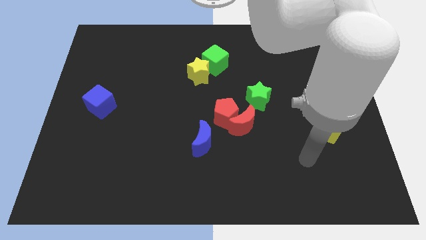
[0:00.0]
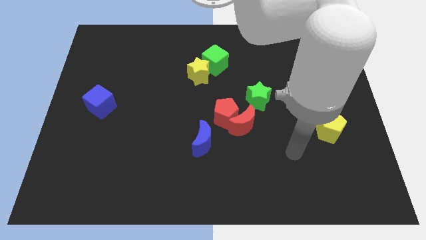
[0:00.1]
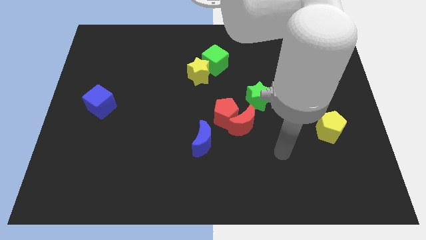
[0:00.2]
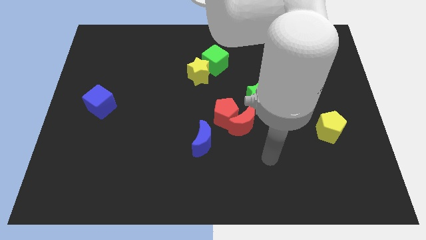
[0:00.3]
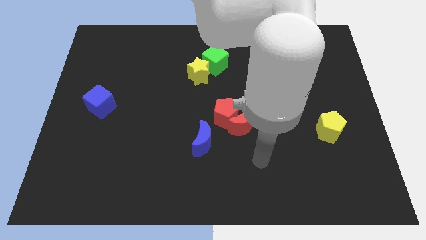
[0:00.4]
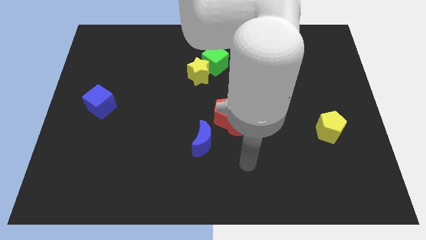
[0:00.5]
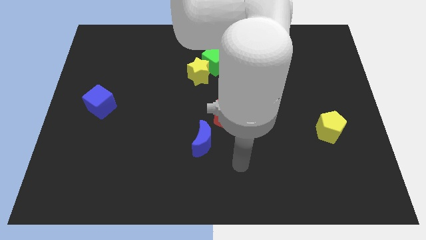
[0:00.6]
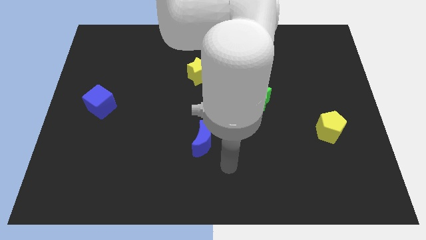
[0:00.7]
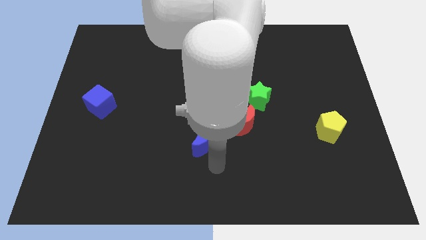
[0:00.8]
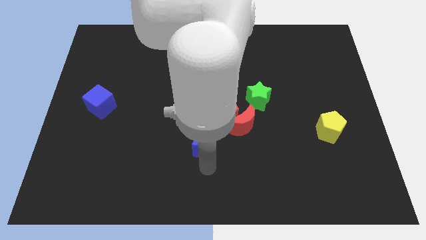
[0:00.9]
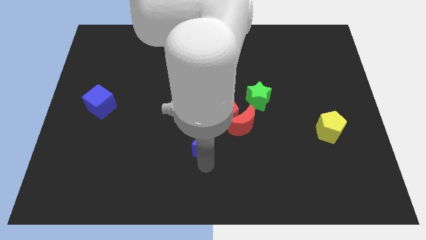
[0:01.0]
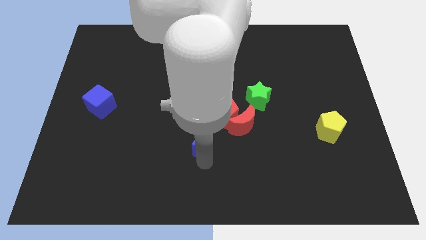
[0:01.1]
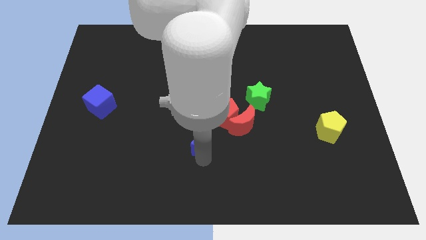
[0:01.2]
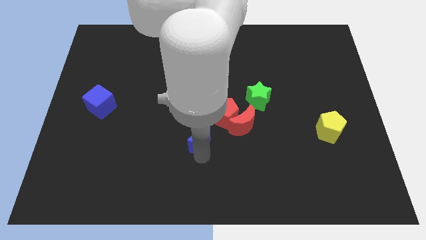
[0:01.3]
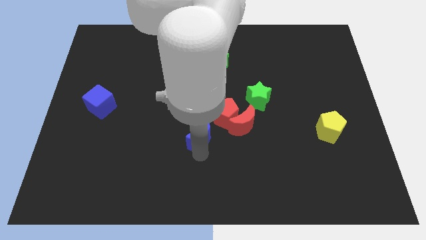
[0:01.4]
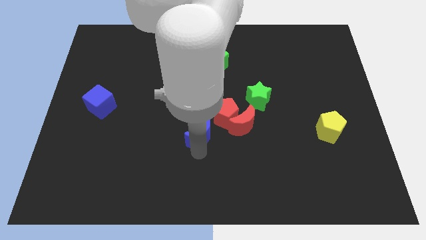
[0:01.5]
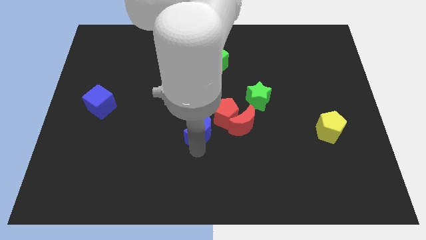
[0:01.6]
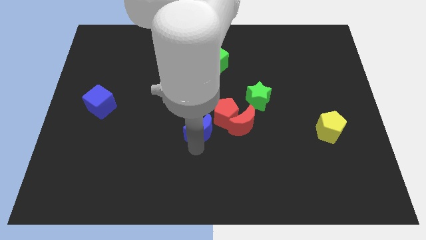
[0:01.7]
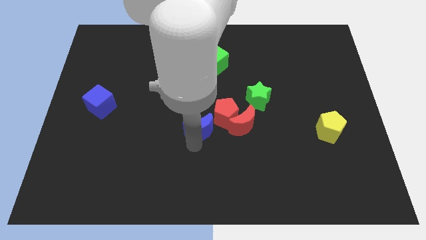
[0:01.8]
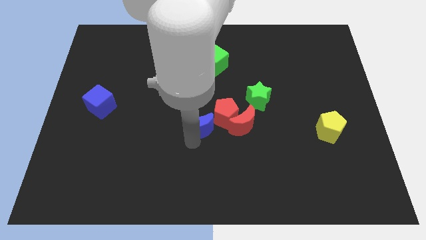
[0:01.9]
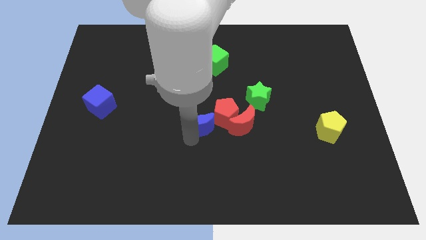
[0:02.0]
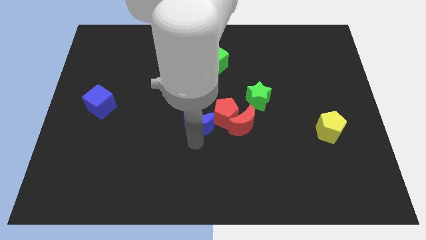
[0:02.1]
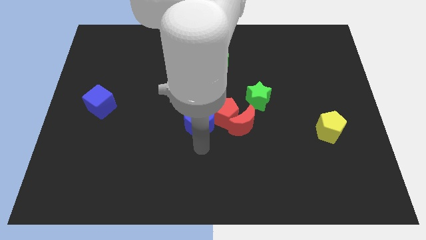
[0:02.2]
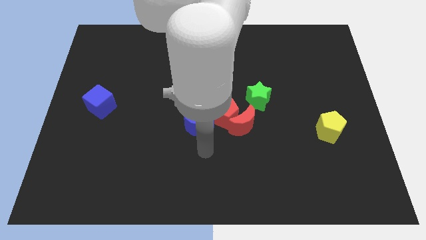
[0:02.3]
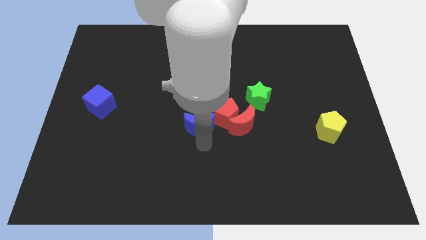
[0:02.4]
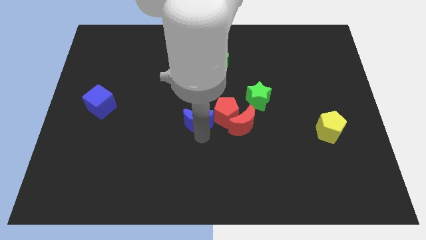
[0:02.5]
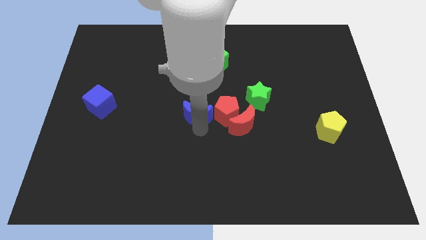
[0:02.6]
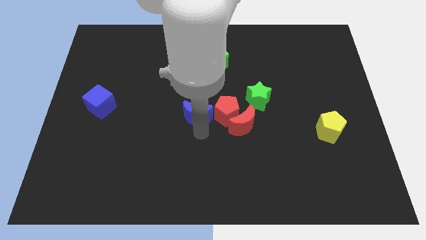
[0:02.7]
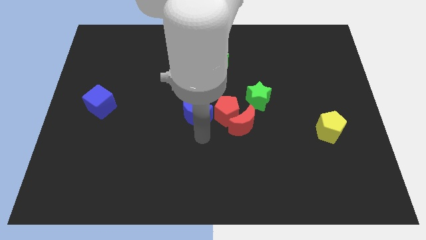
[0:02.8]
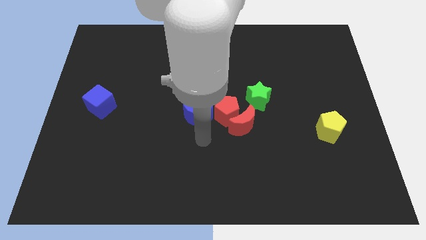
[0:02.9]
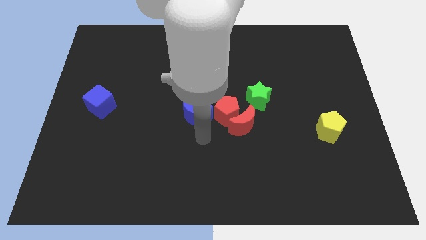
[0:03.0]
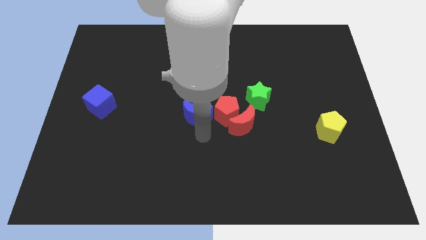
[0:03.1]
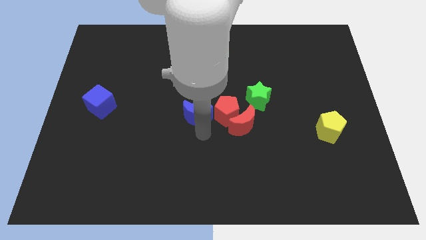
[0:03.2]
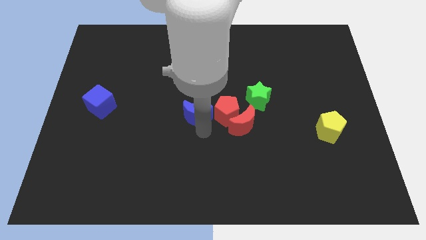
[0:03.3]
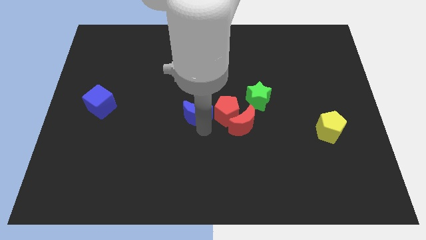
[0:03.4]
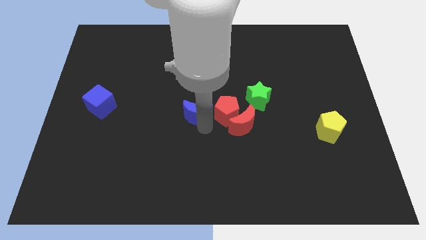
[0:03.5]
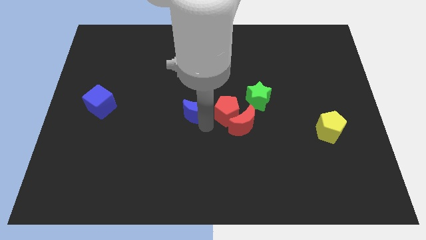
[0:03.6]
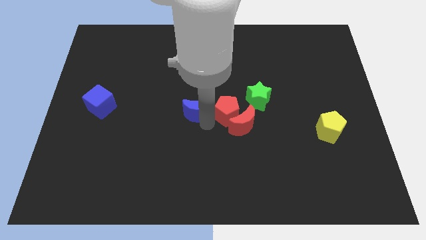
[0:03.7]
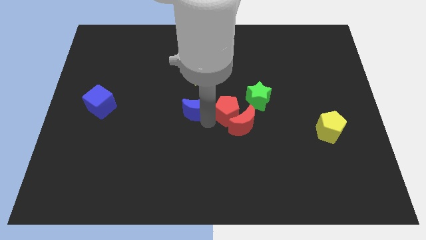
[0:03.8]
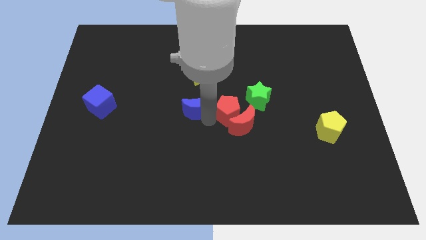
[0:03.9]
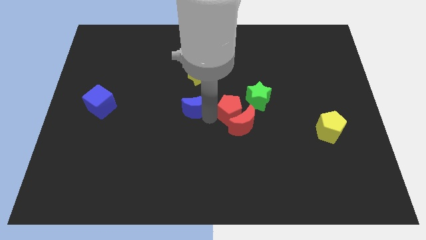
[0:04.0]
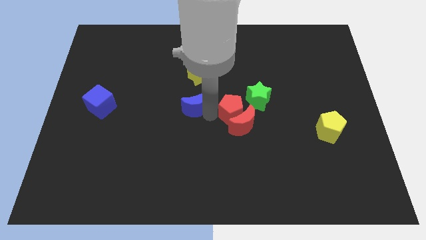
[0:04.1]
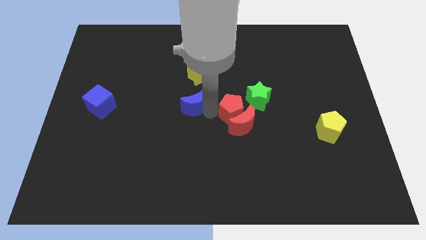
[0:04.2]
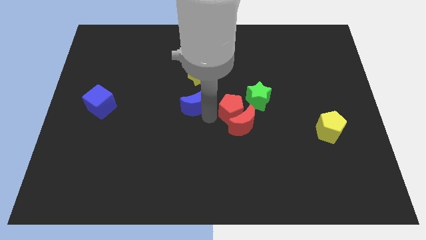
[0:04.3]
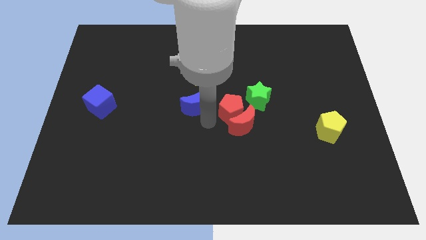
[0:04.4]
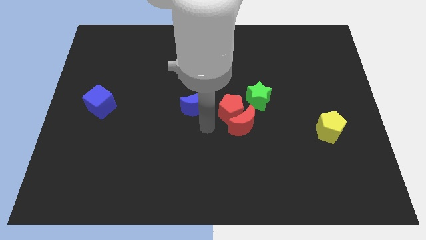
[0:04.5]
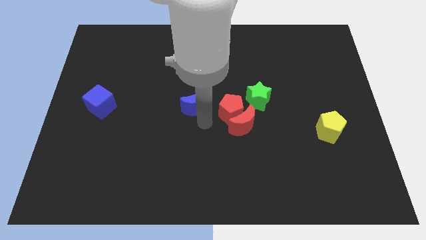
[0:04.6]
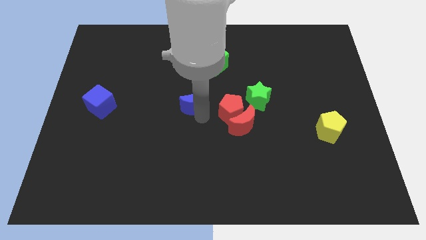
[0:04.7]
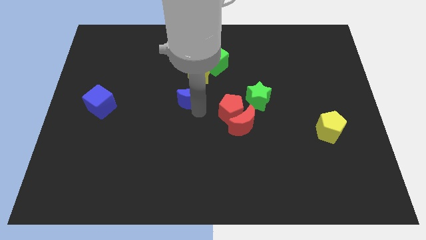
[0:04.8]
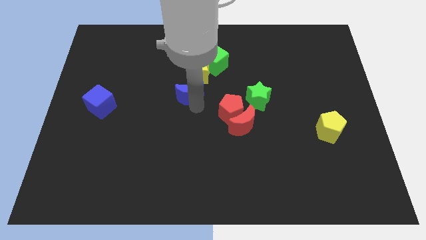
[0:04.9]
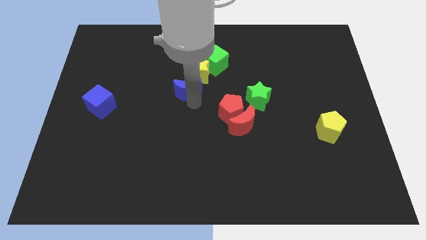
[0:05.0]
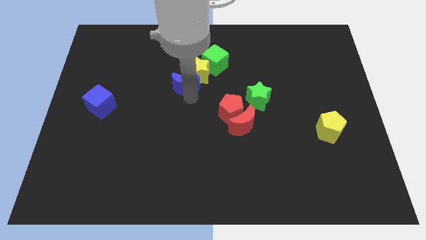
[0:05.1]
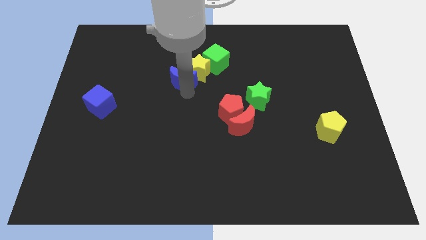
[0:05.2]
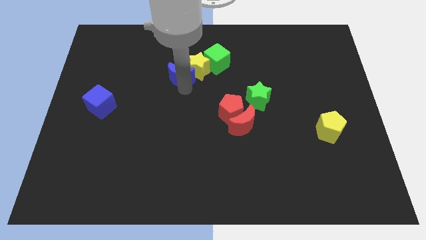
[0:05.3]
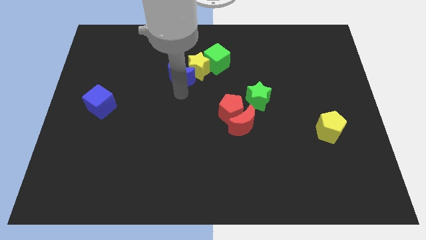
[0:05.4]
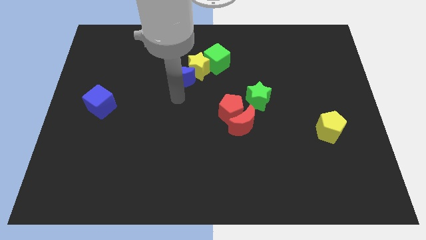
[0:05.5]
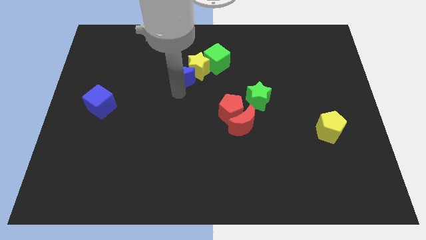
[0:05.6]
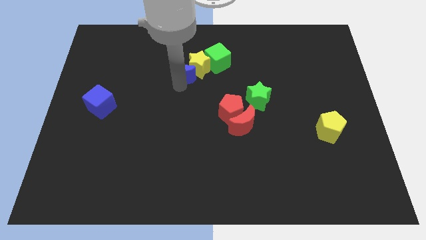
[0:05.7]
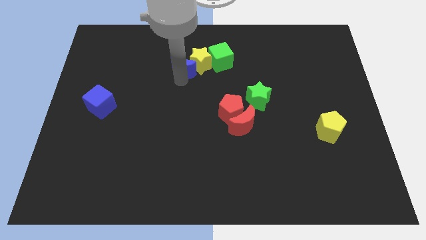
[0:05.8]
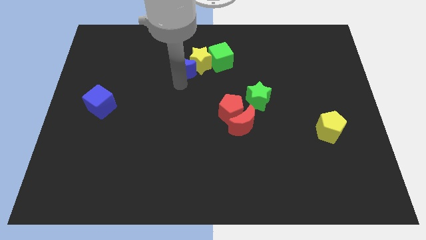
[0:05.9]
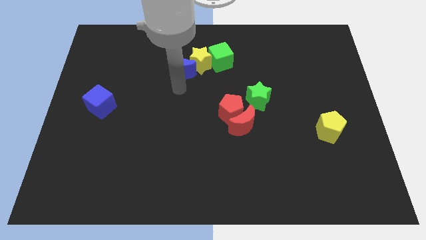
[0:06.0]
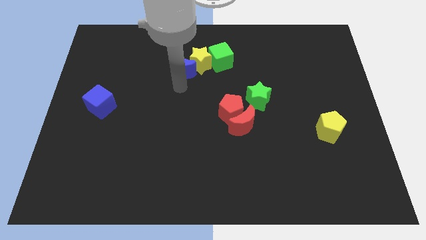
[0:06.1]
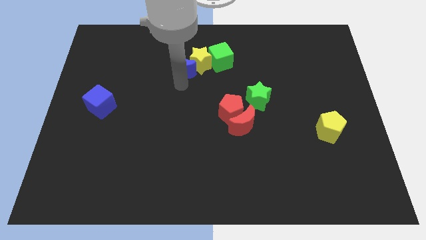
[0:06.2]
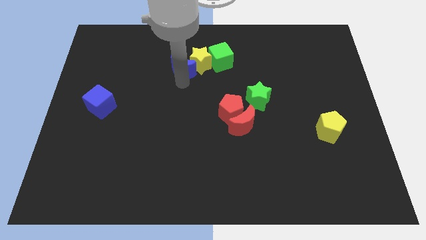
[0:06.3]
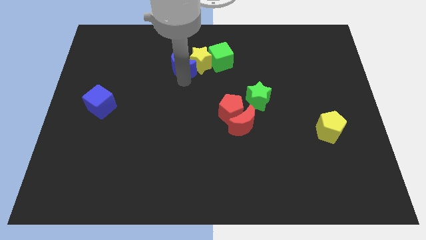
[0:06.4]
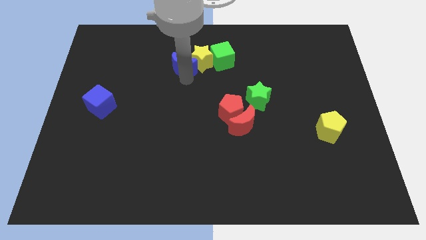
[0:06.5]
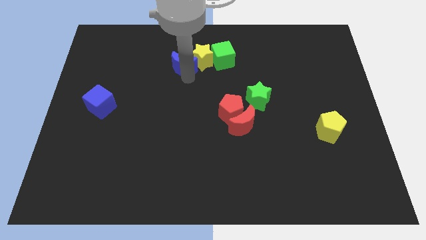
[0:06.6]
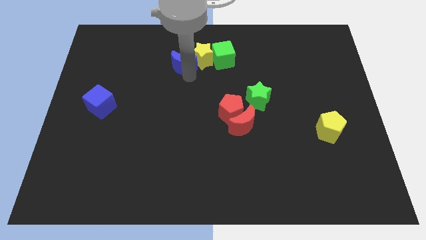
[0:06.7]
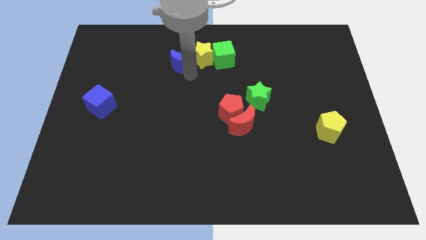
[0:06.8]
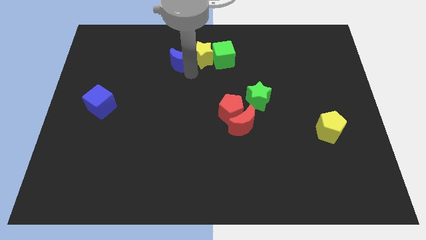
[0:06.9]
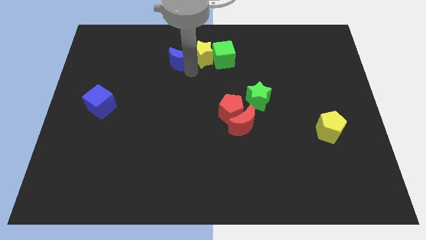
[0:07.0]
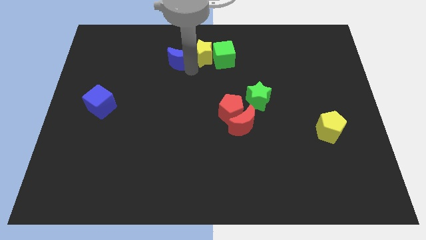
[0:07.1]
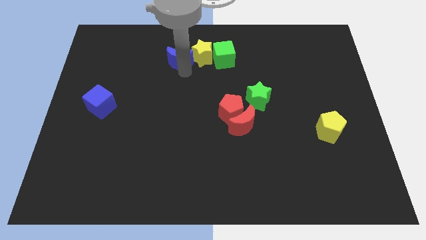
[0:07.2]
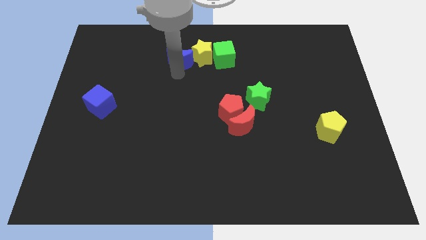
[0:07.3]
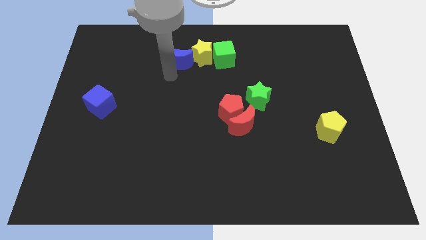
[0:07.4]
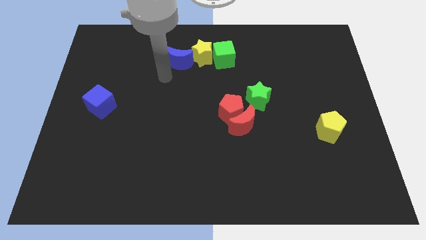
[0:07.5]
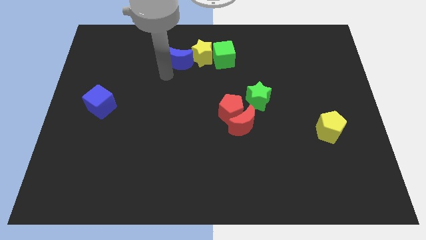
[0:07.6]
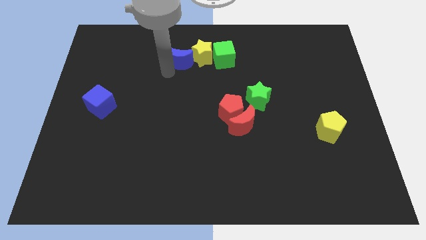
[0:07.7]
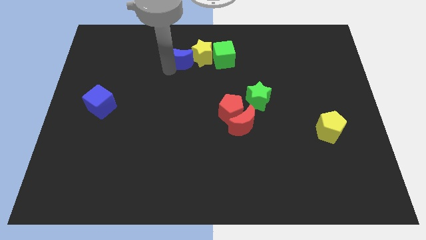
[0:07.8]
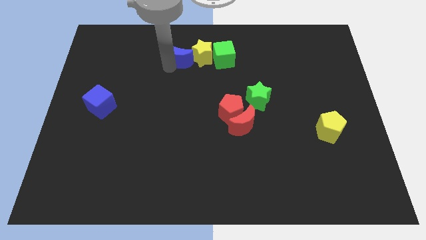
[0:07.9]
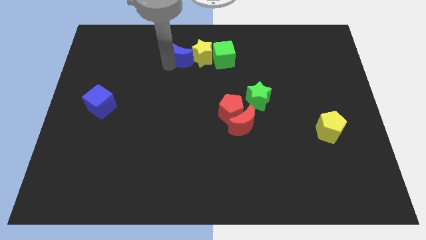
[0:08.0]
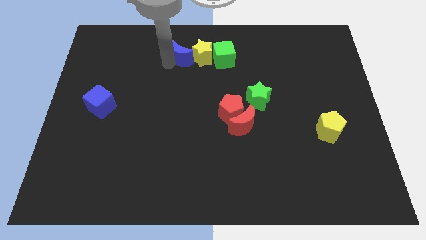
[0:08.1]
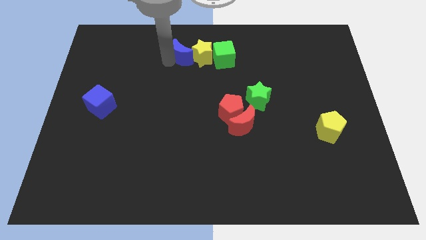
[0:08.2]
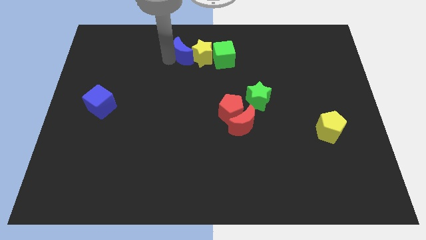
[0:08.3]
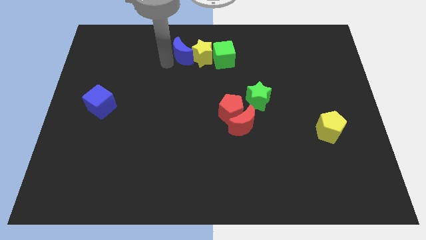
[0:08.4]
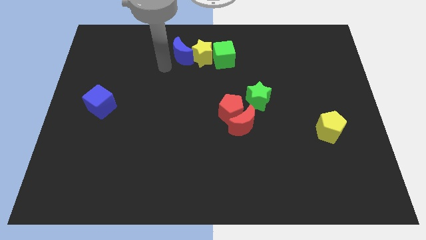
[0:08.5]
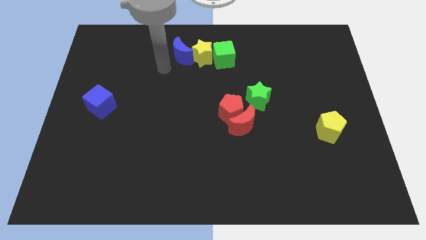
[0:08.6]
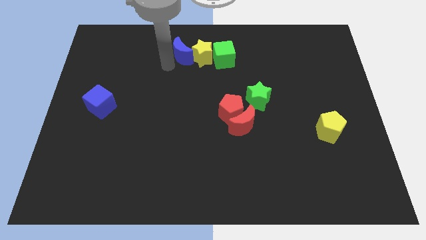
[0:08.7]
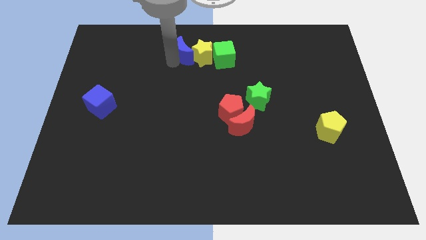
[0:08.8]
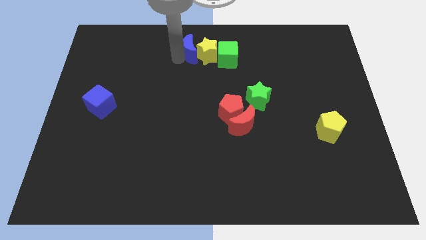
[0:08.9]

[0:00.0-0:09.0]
move the blue moon to the top
